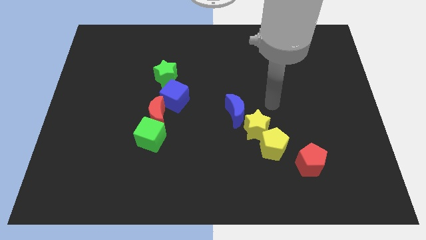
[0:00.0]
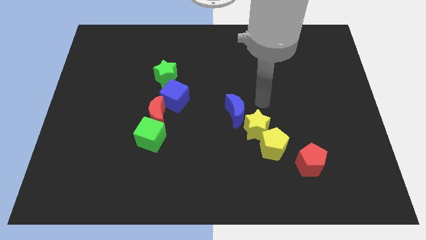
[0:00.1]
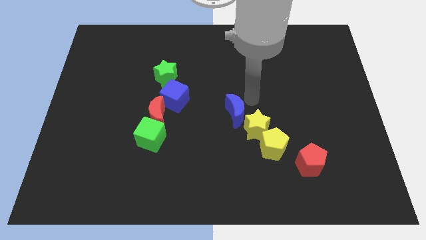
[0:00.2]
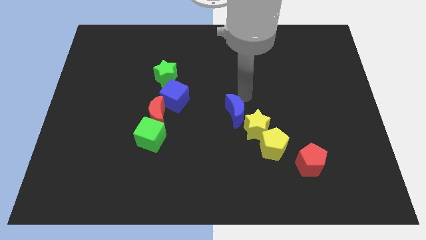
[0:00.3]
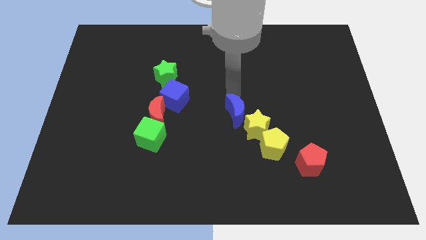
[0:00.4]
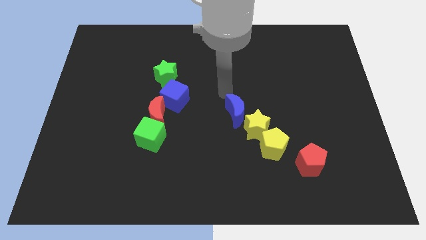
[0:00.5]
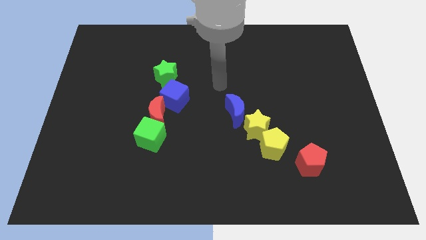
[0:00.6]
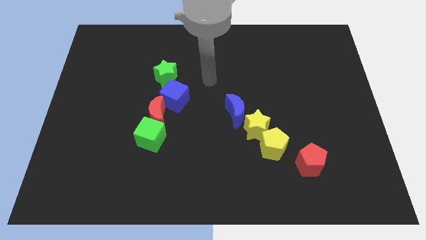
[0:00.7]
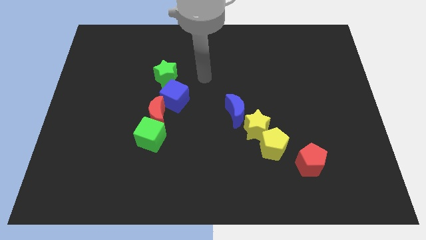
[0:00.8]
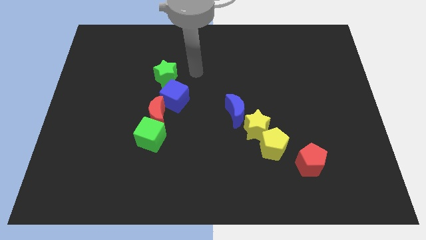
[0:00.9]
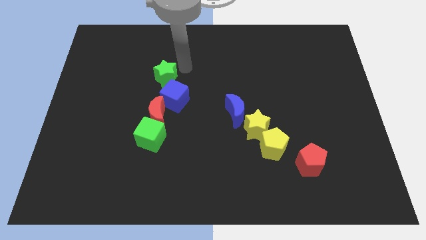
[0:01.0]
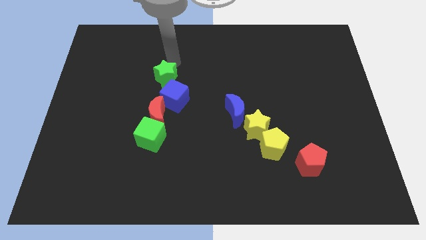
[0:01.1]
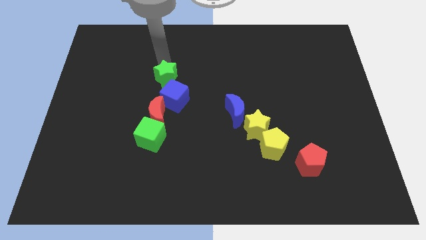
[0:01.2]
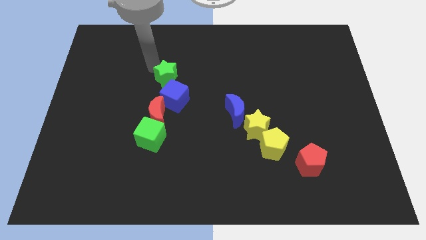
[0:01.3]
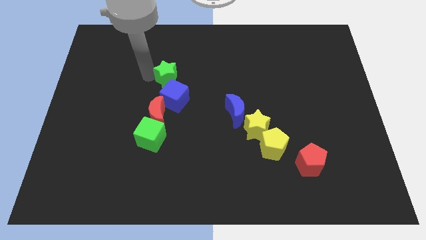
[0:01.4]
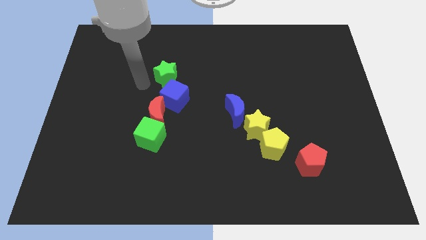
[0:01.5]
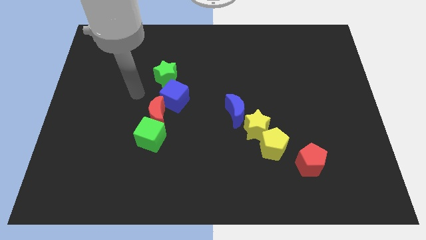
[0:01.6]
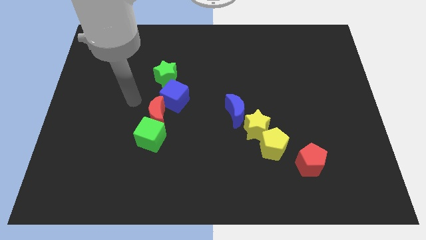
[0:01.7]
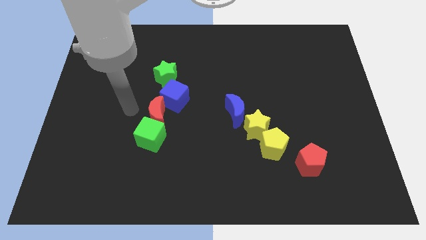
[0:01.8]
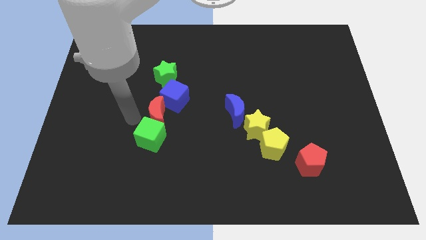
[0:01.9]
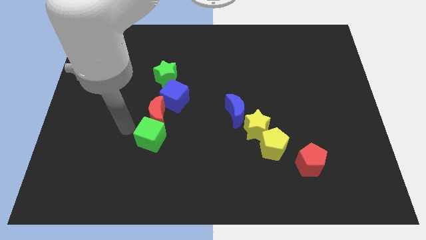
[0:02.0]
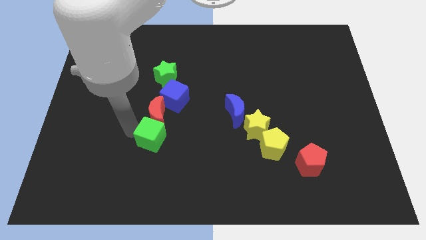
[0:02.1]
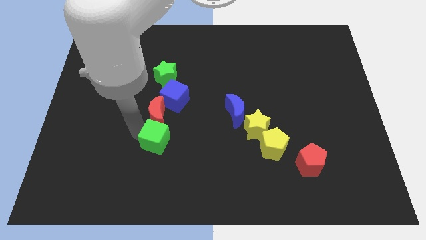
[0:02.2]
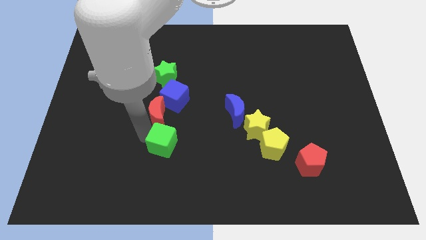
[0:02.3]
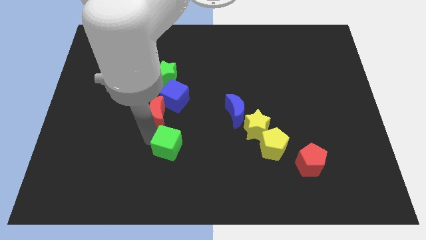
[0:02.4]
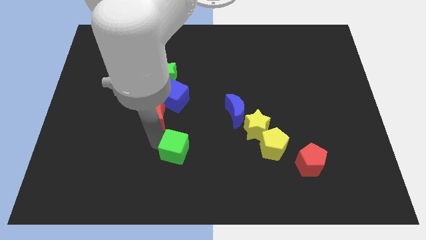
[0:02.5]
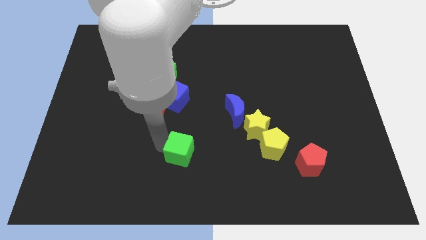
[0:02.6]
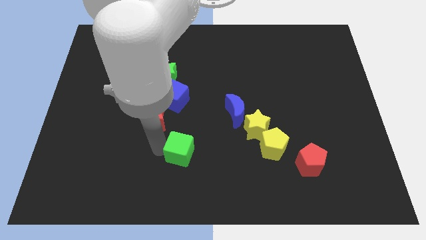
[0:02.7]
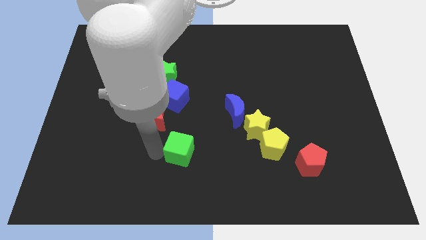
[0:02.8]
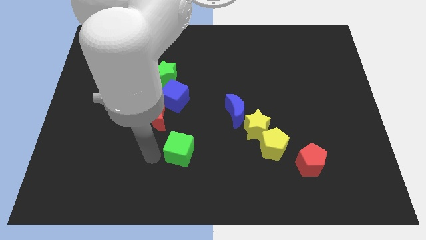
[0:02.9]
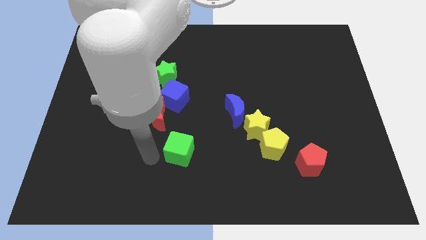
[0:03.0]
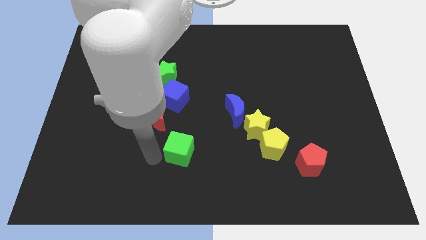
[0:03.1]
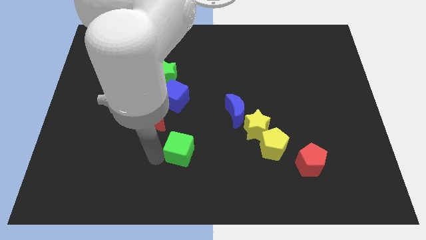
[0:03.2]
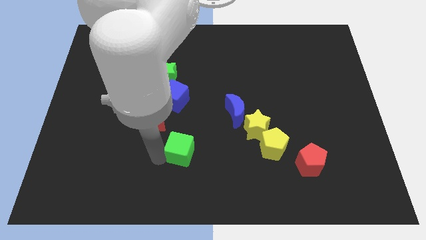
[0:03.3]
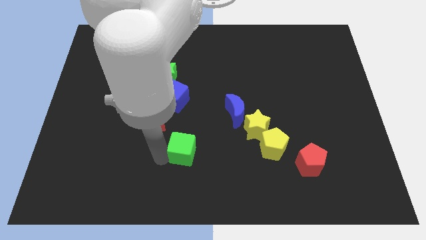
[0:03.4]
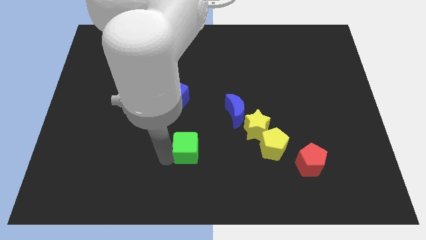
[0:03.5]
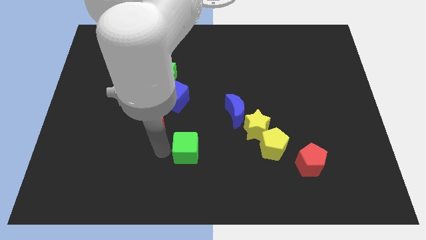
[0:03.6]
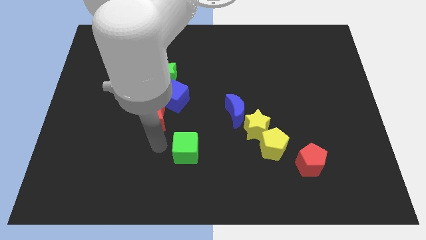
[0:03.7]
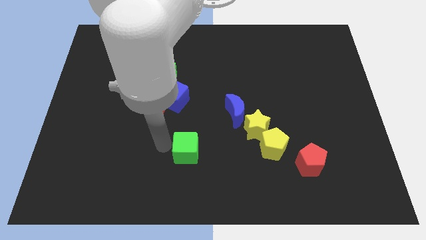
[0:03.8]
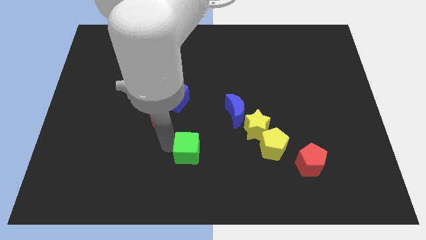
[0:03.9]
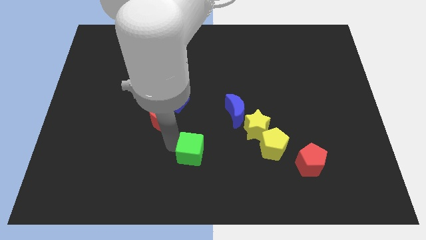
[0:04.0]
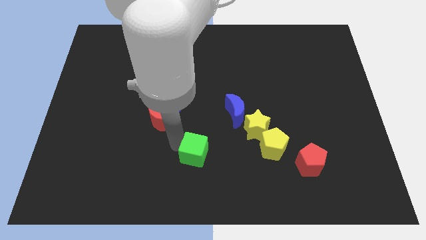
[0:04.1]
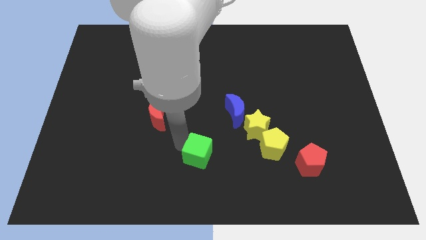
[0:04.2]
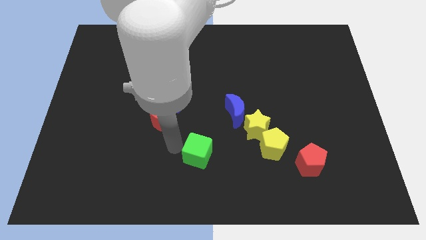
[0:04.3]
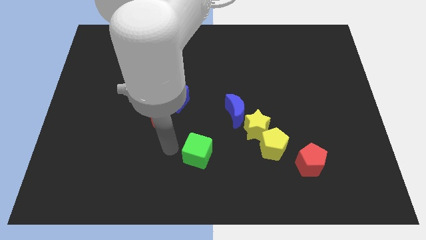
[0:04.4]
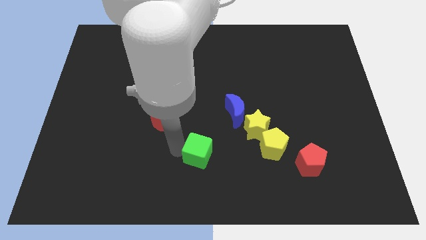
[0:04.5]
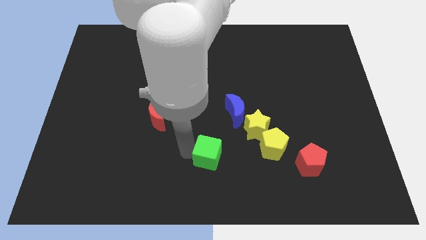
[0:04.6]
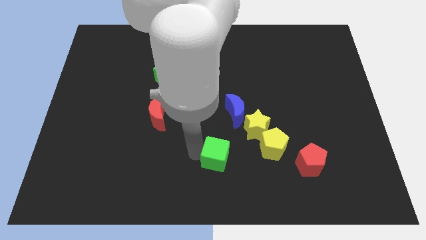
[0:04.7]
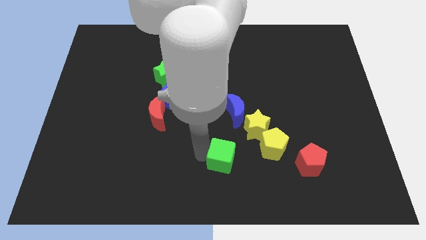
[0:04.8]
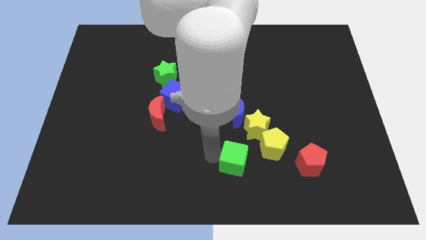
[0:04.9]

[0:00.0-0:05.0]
push the green cube to the bottom side of the yellow star

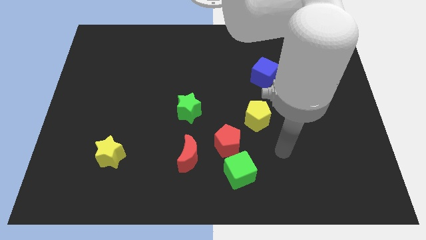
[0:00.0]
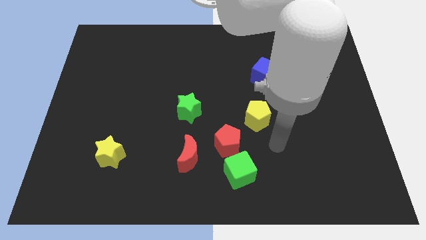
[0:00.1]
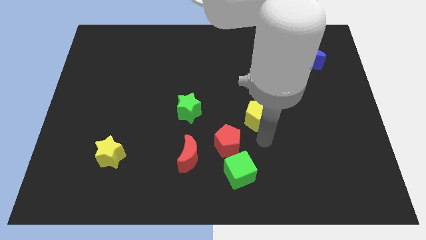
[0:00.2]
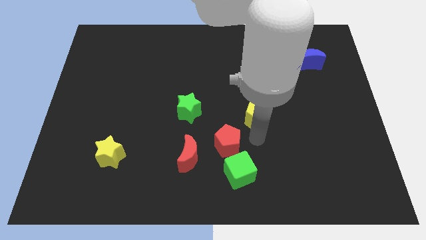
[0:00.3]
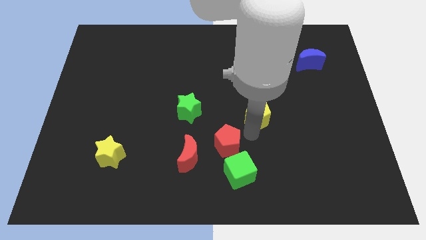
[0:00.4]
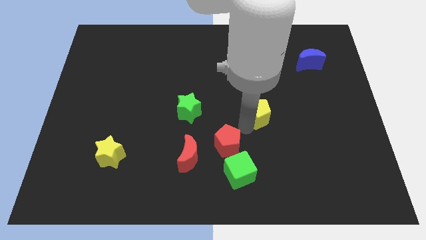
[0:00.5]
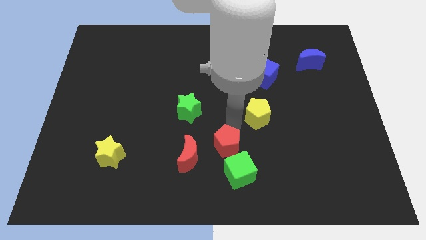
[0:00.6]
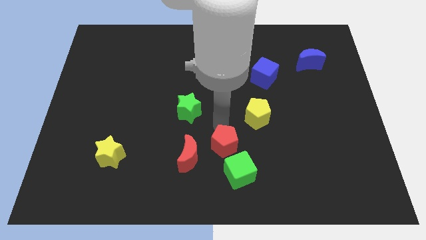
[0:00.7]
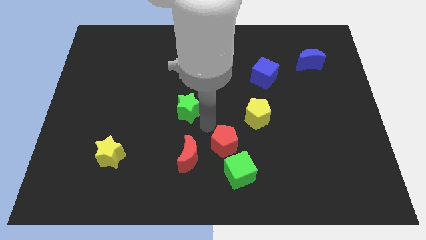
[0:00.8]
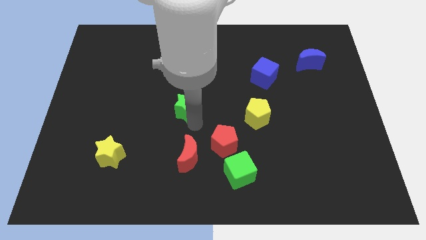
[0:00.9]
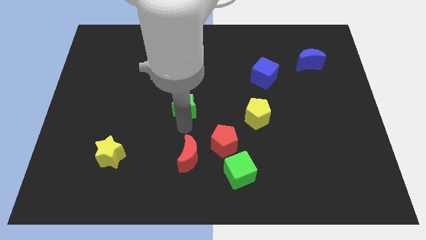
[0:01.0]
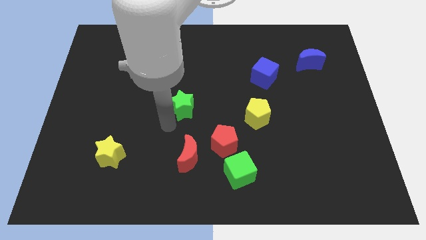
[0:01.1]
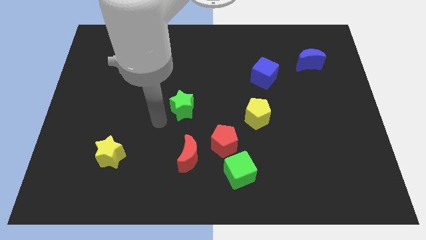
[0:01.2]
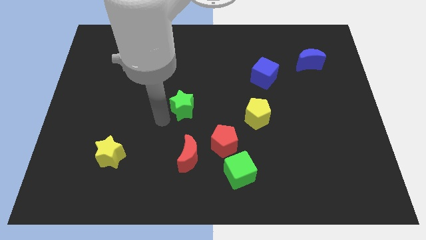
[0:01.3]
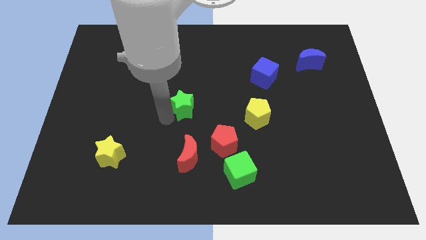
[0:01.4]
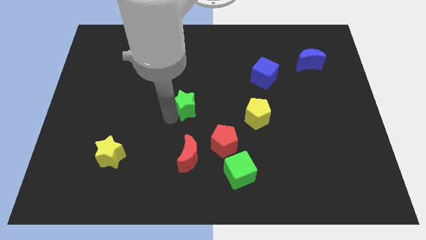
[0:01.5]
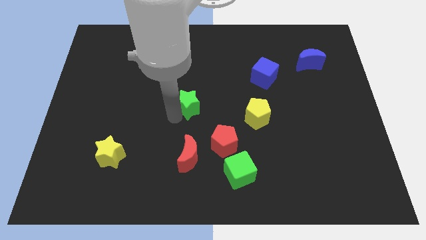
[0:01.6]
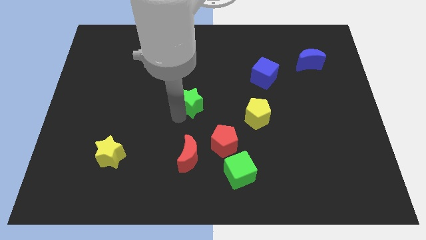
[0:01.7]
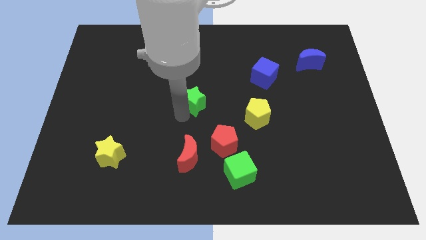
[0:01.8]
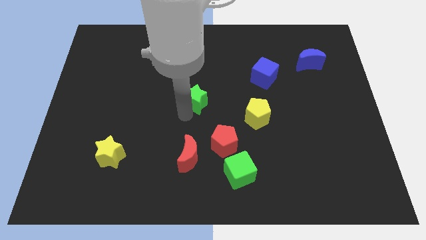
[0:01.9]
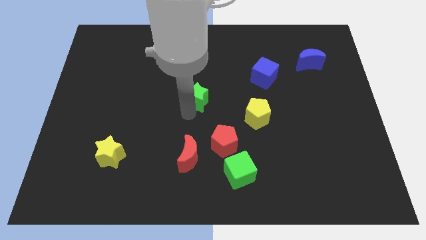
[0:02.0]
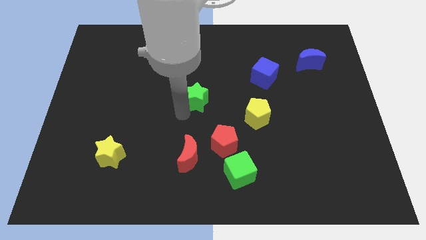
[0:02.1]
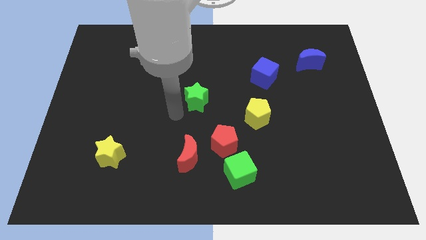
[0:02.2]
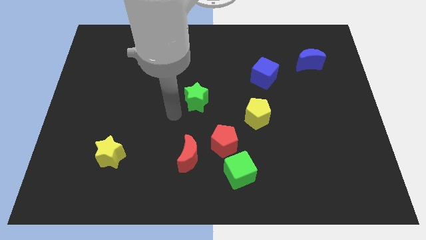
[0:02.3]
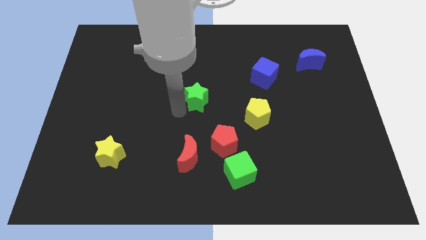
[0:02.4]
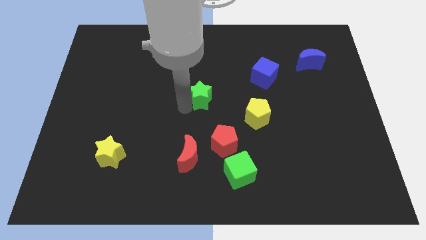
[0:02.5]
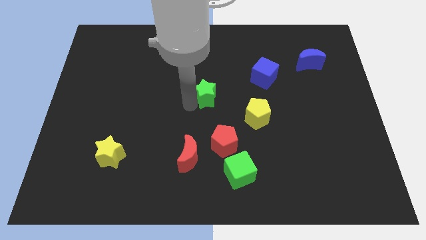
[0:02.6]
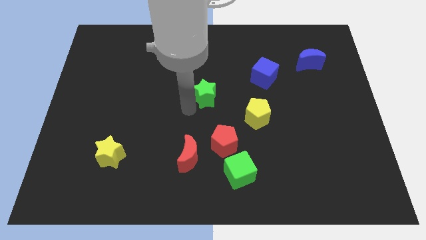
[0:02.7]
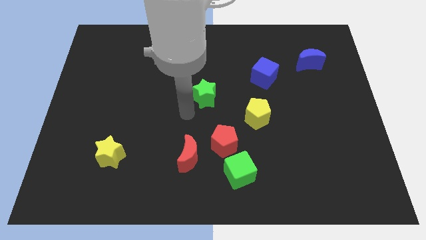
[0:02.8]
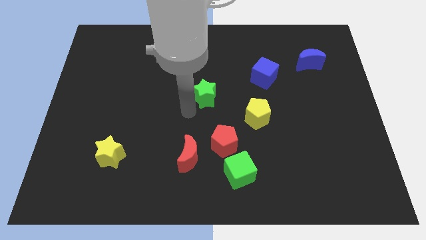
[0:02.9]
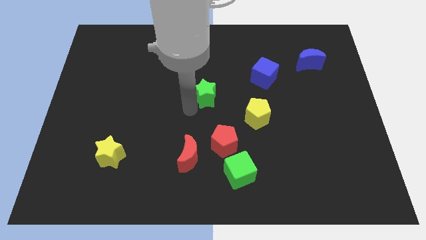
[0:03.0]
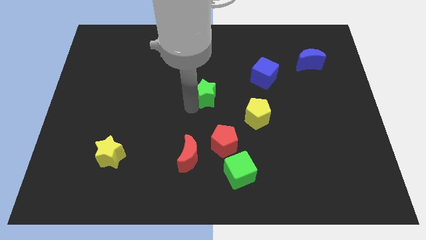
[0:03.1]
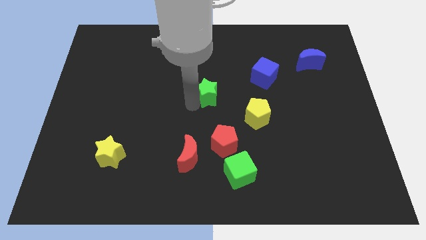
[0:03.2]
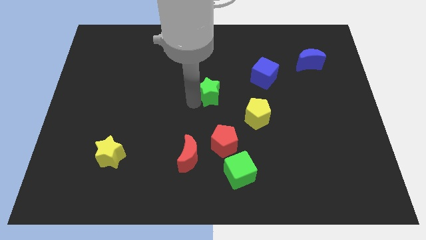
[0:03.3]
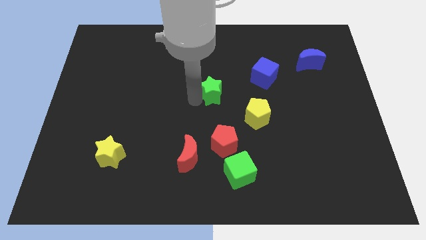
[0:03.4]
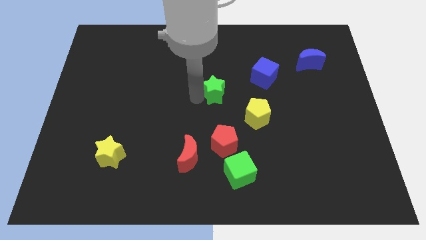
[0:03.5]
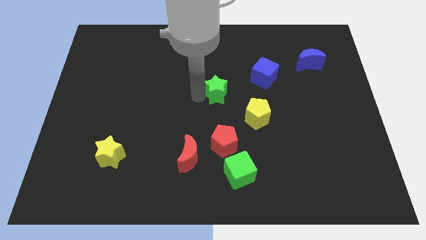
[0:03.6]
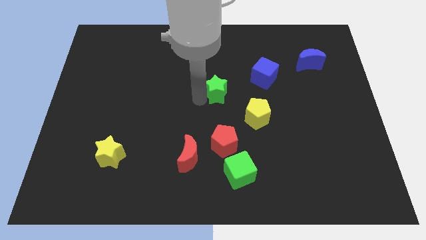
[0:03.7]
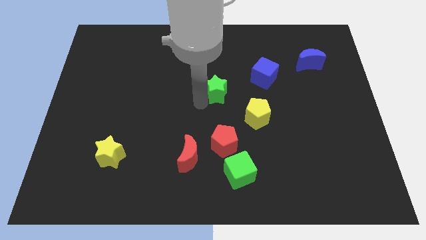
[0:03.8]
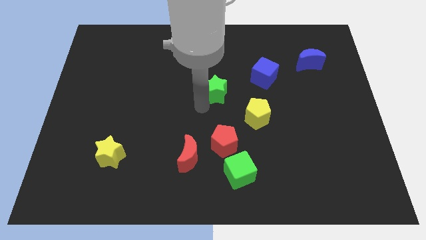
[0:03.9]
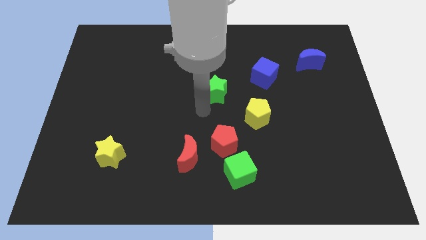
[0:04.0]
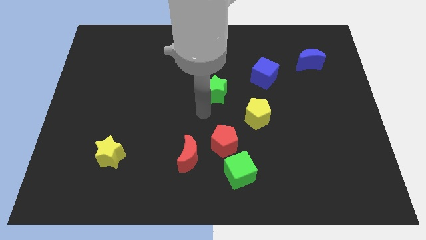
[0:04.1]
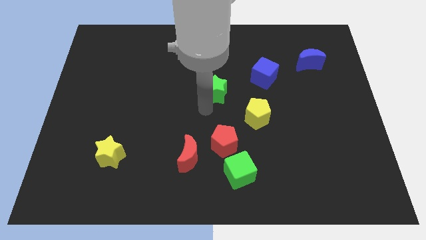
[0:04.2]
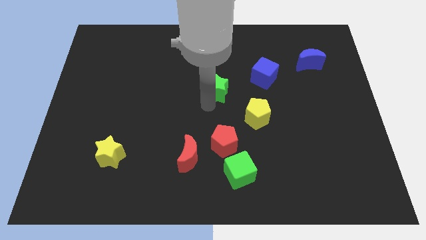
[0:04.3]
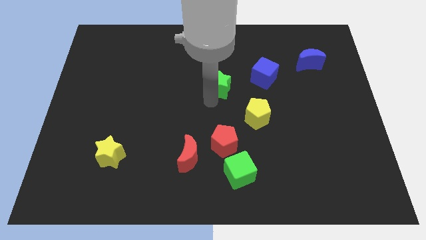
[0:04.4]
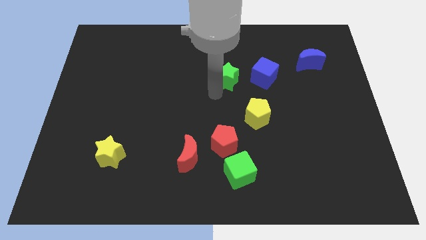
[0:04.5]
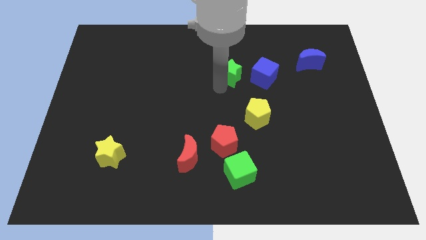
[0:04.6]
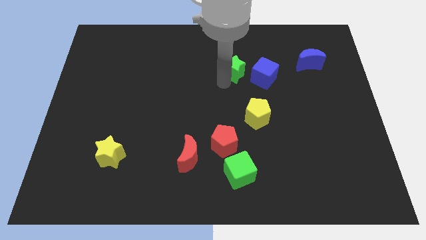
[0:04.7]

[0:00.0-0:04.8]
move the green star diagonally up and to the left of the blue cube
